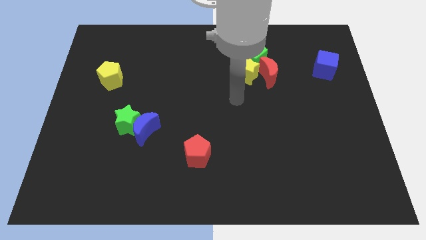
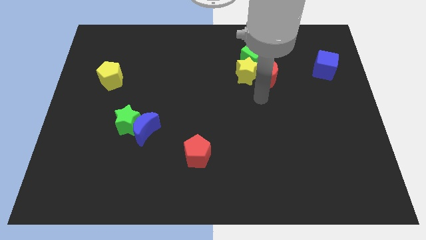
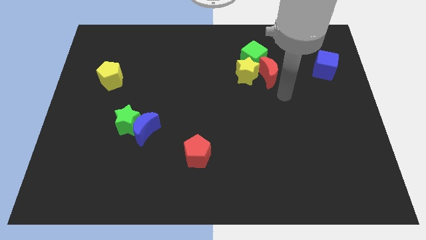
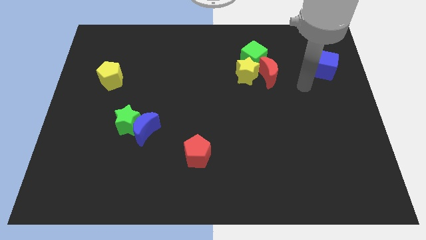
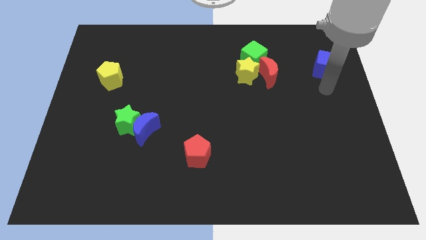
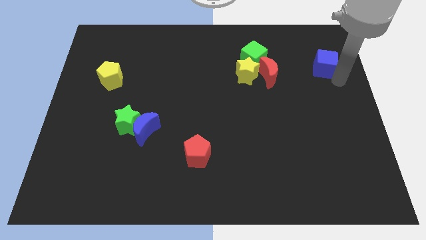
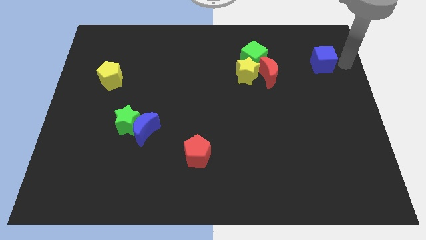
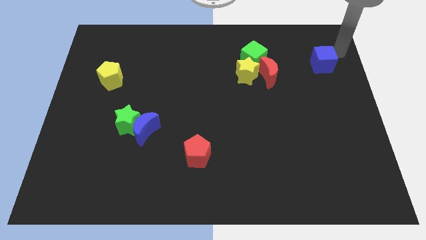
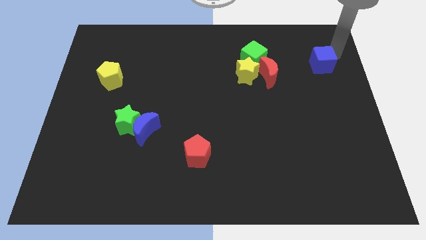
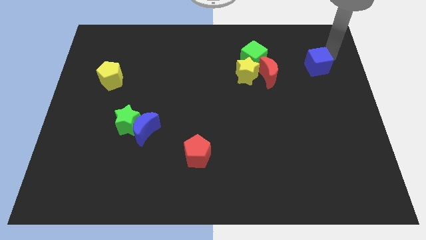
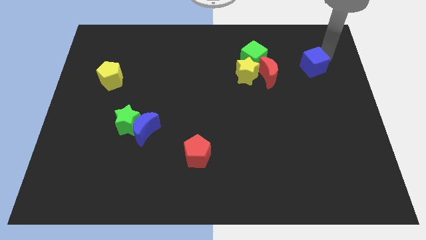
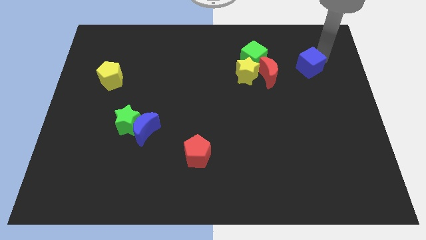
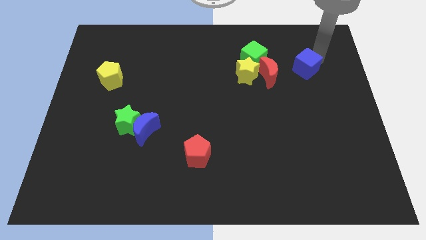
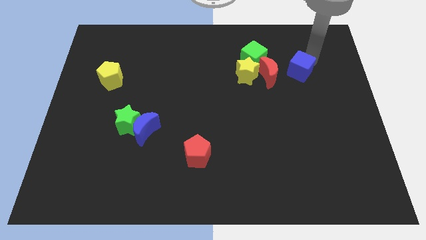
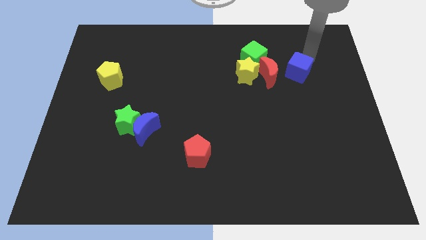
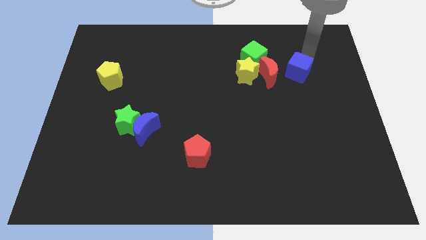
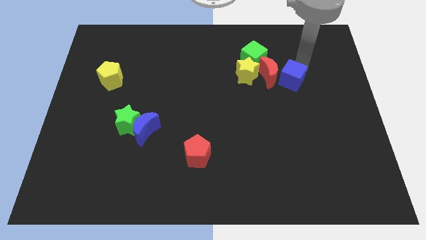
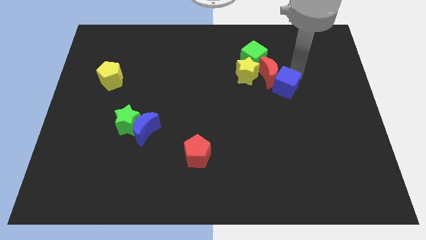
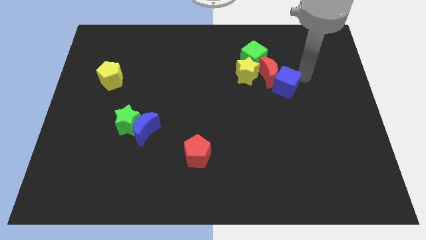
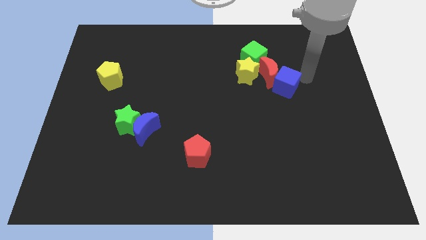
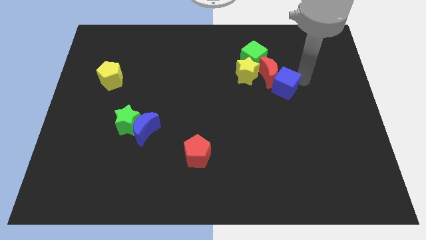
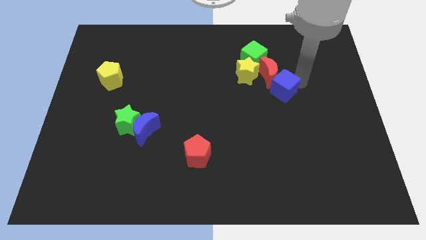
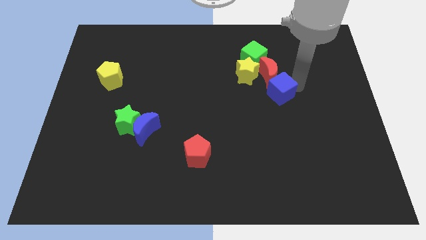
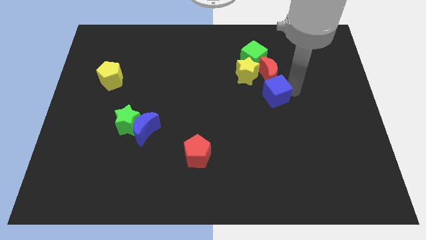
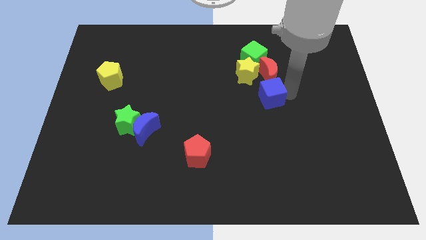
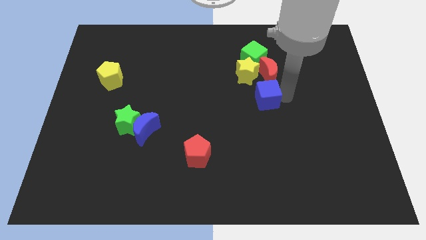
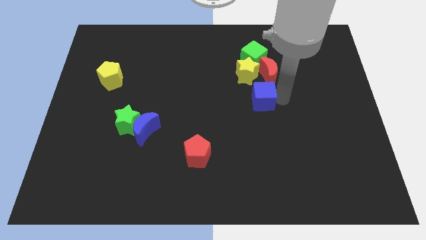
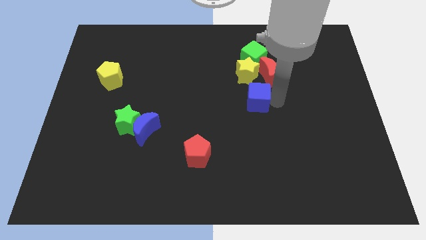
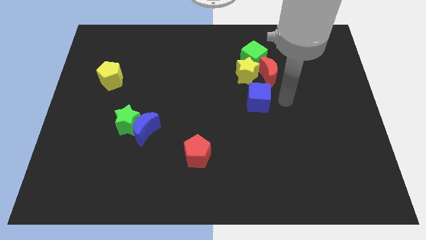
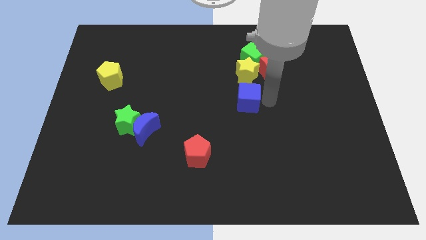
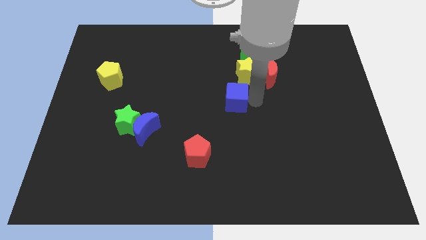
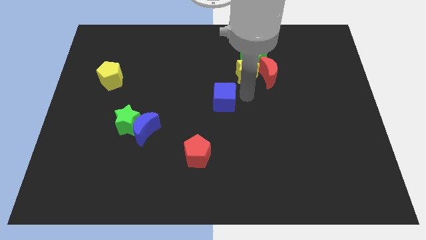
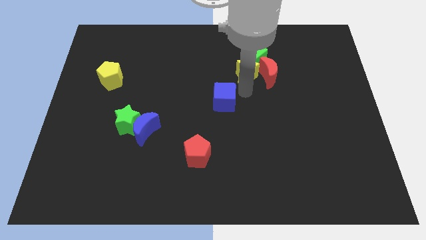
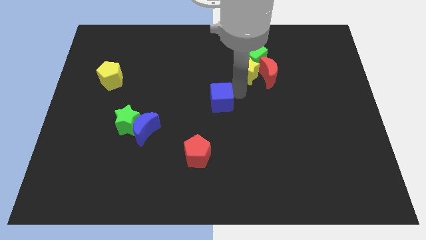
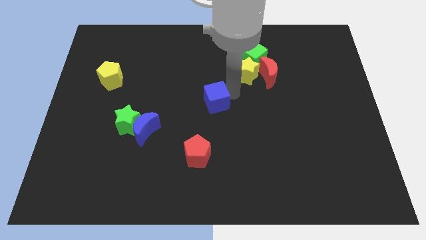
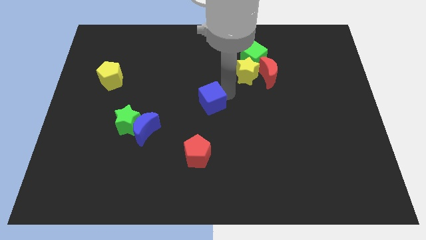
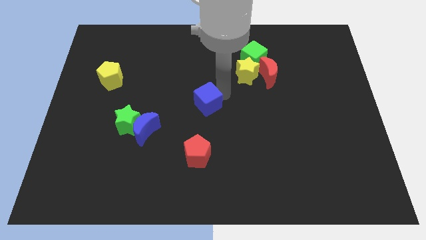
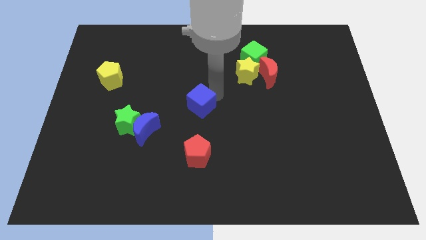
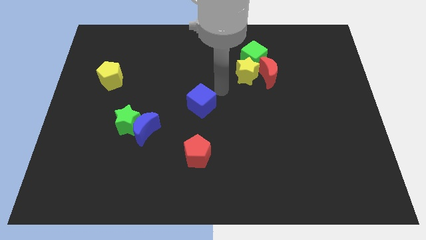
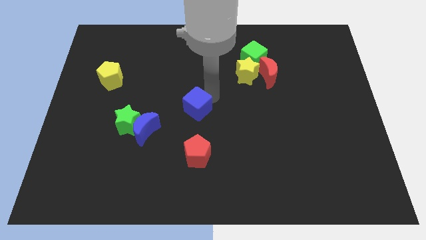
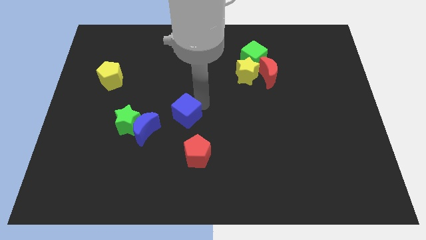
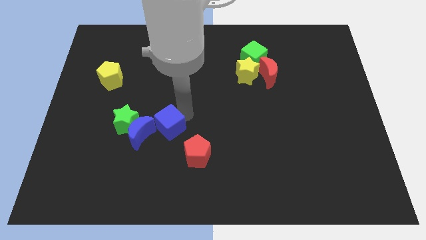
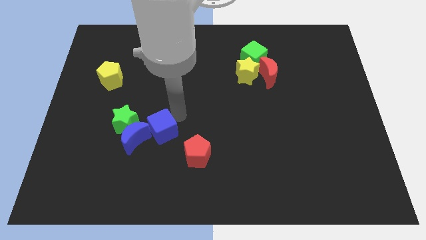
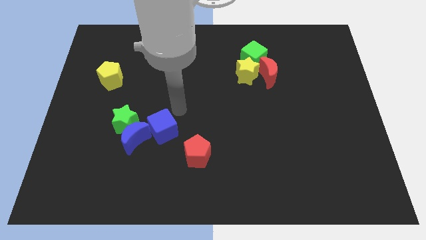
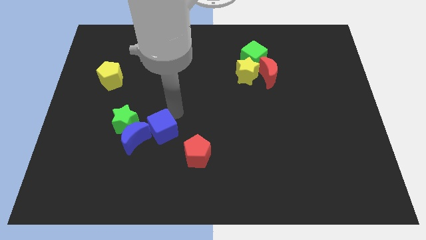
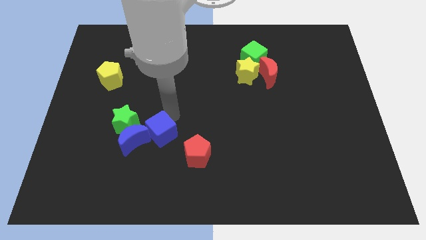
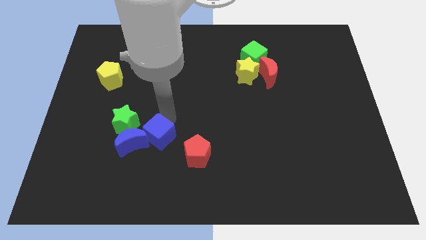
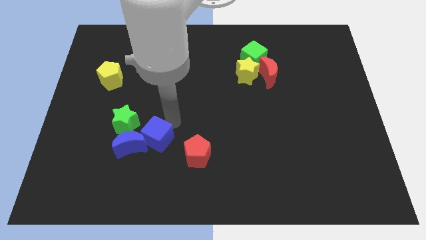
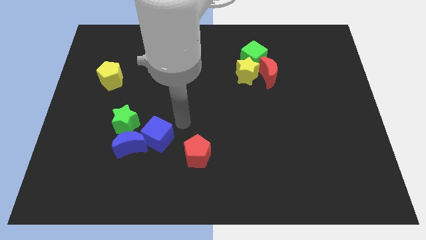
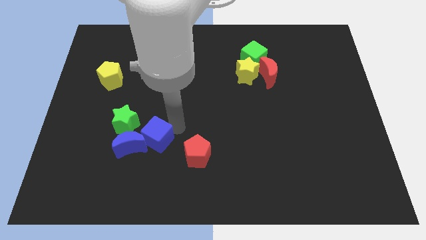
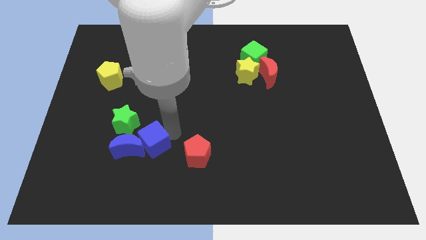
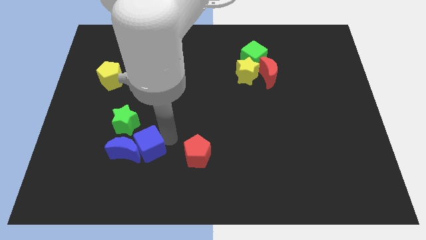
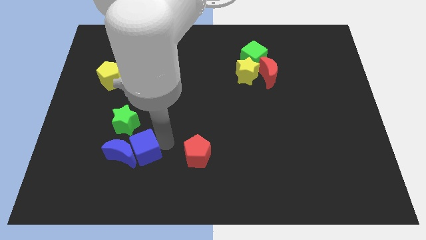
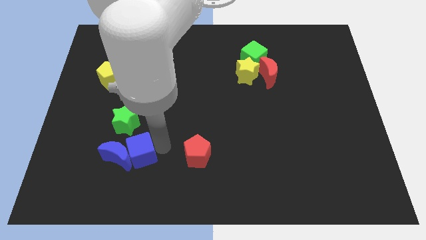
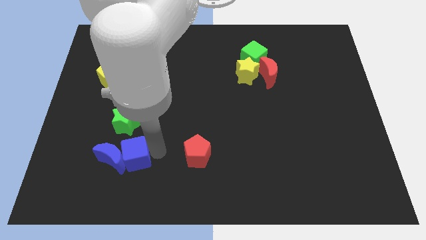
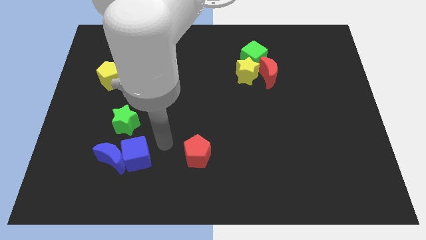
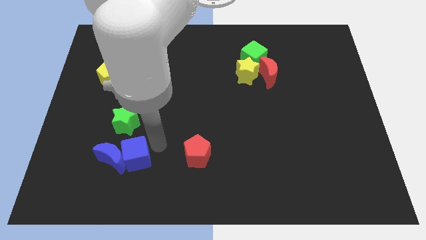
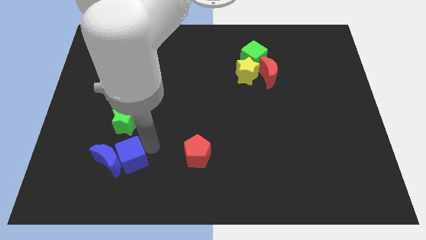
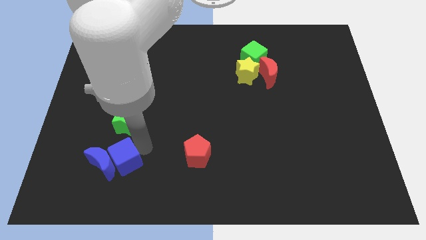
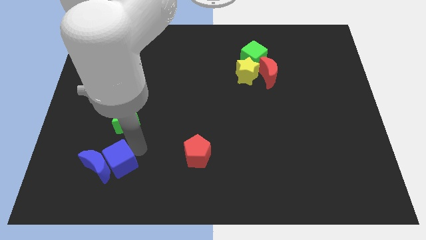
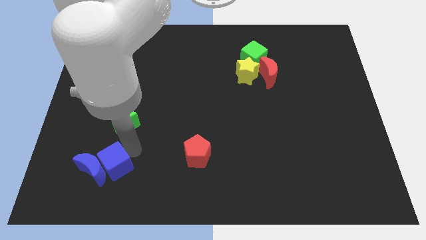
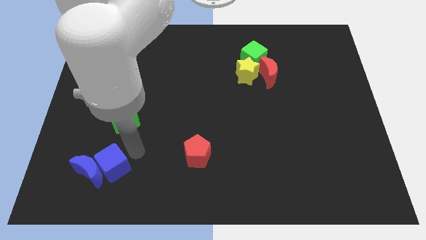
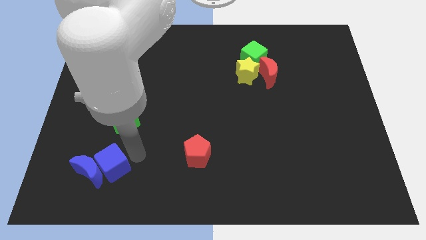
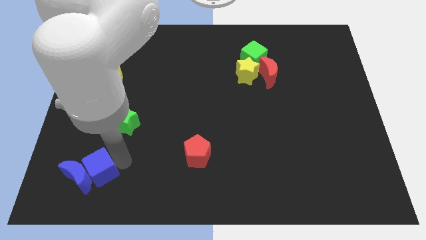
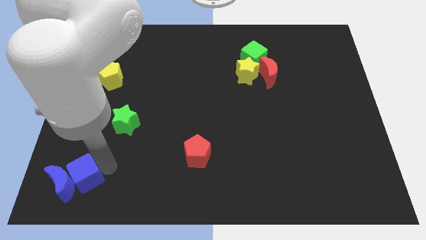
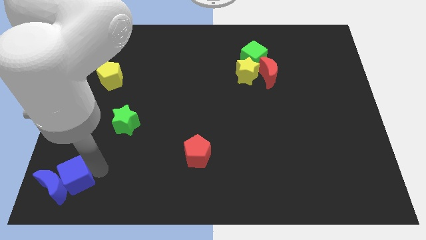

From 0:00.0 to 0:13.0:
put the blue cube to the bottom left
